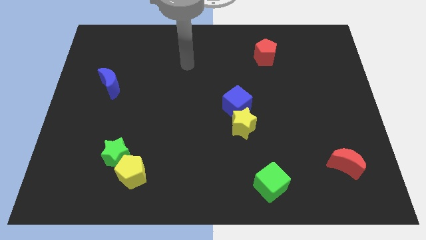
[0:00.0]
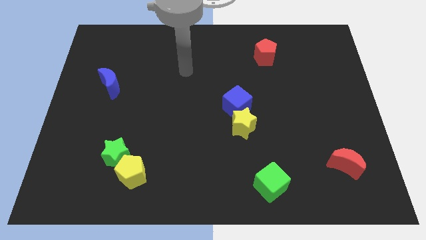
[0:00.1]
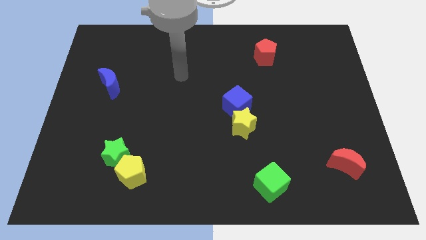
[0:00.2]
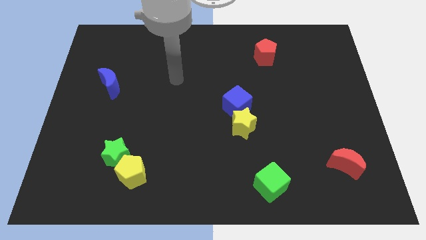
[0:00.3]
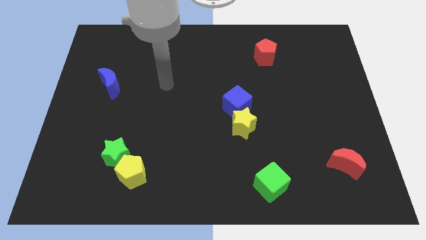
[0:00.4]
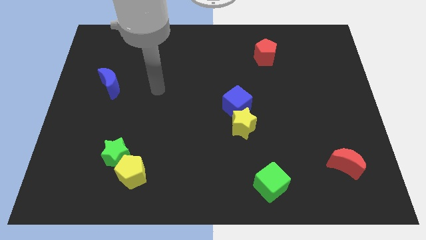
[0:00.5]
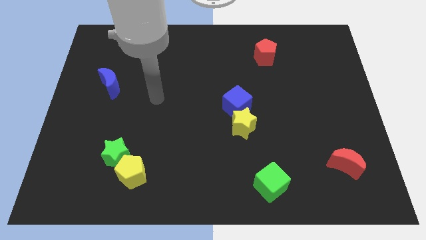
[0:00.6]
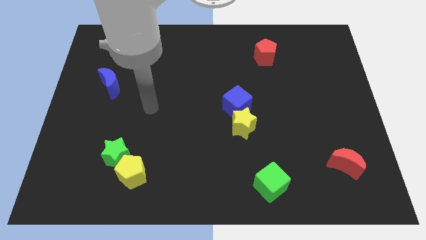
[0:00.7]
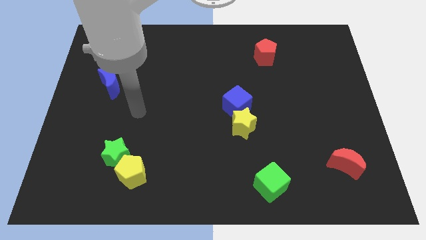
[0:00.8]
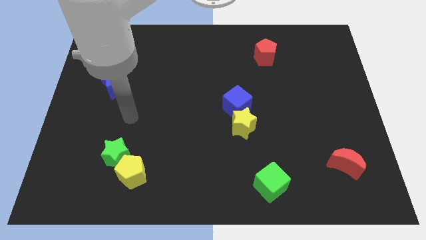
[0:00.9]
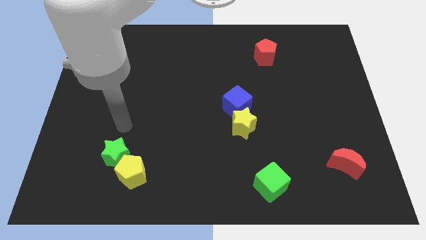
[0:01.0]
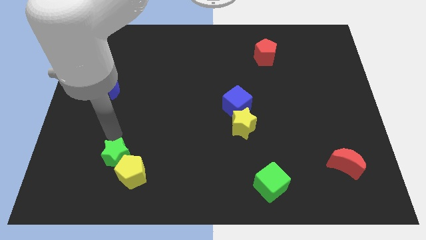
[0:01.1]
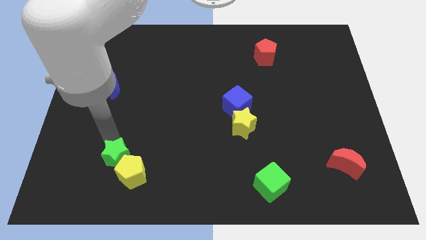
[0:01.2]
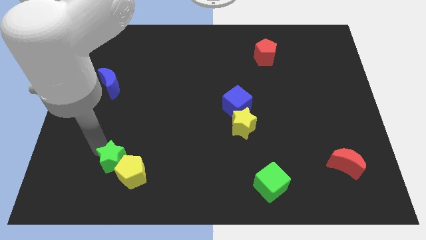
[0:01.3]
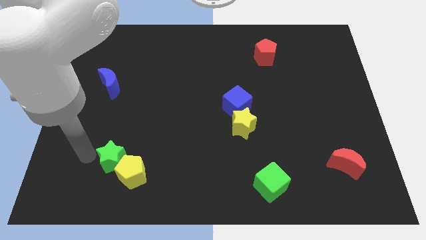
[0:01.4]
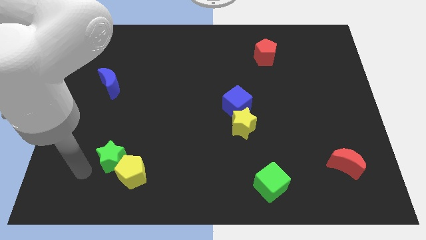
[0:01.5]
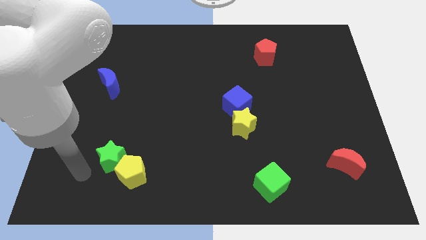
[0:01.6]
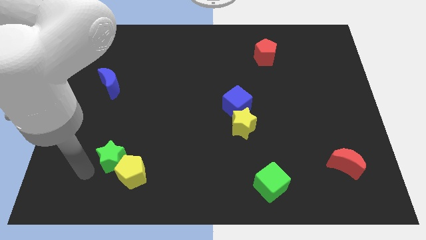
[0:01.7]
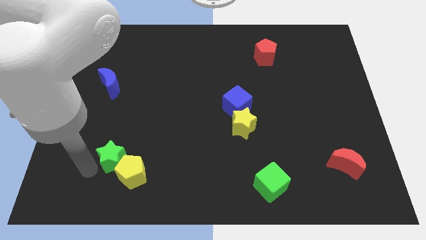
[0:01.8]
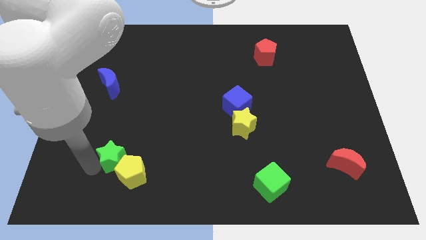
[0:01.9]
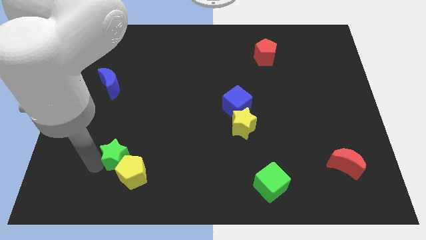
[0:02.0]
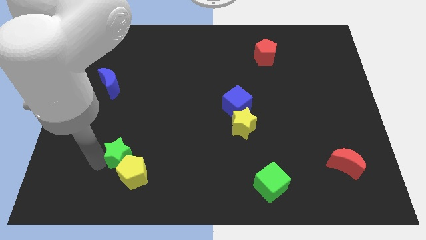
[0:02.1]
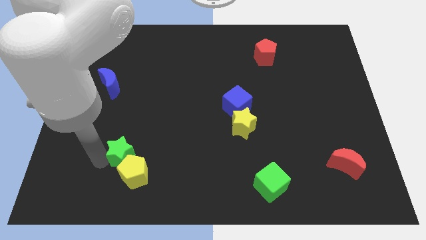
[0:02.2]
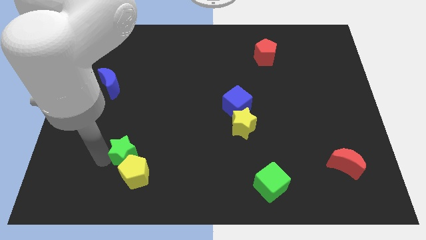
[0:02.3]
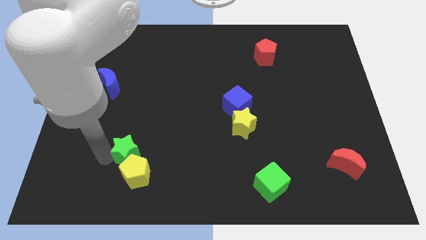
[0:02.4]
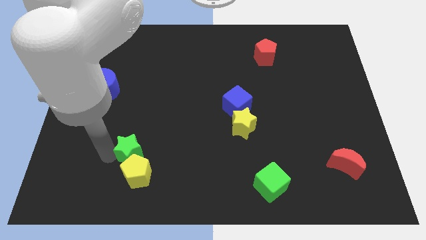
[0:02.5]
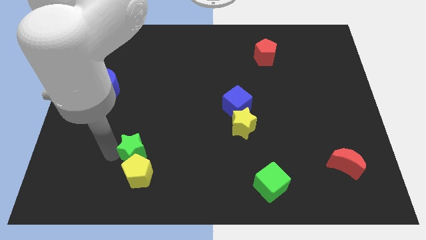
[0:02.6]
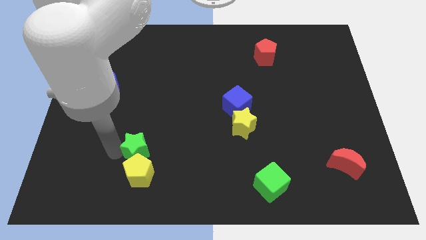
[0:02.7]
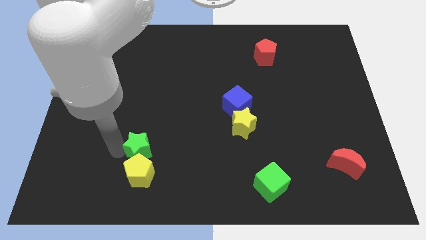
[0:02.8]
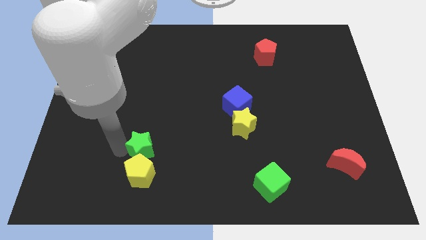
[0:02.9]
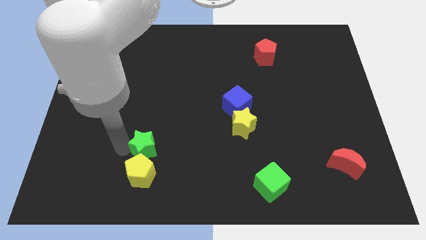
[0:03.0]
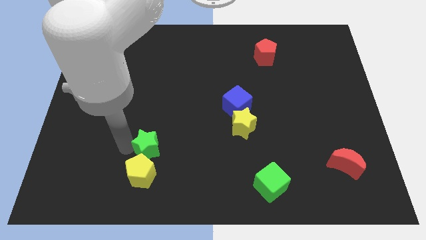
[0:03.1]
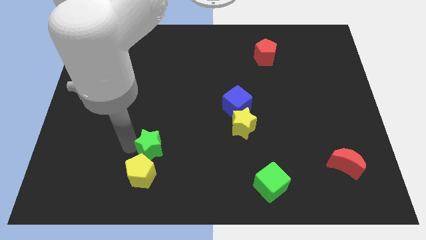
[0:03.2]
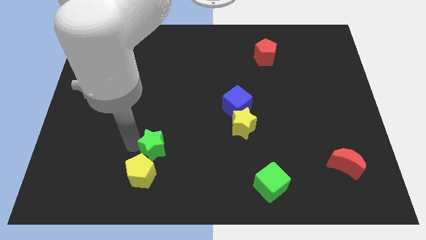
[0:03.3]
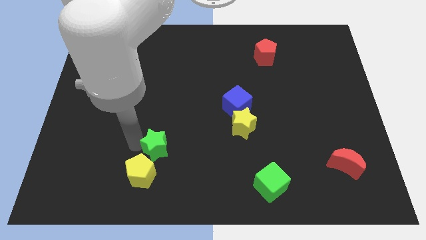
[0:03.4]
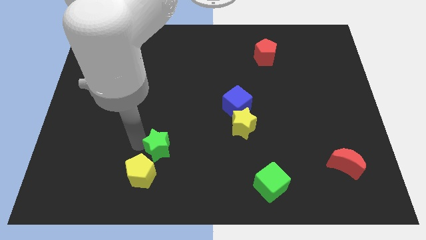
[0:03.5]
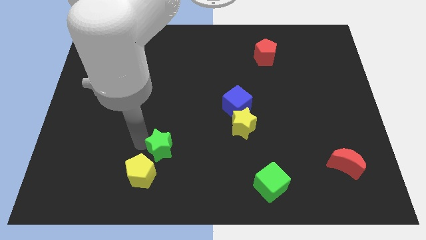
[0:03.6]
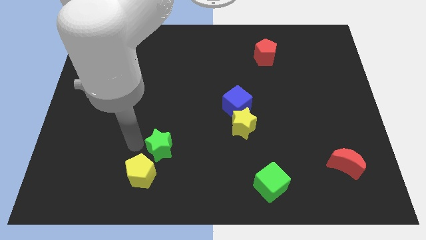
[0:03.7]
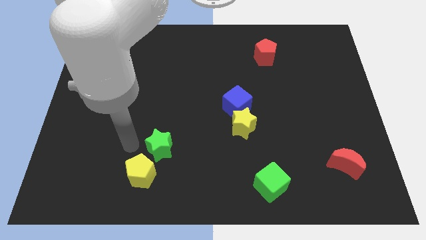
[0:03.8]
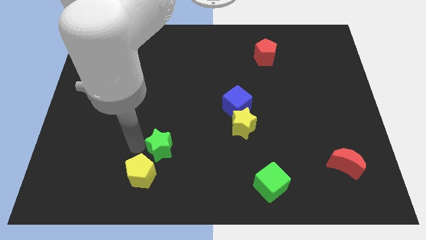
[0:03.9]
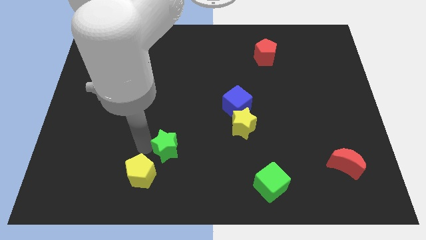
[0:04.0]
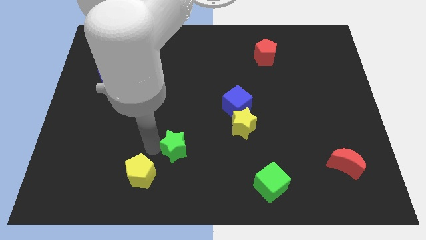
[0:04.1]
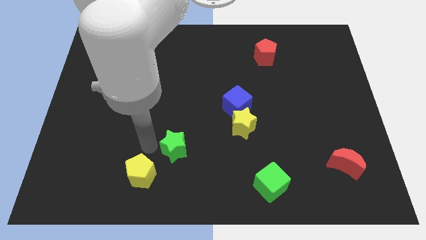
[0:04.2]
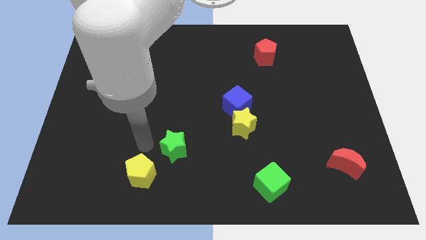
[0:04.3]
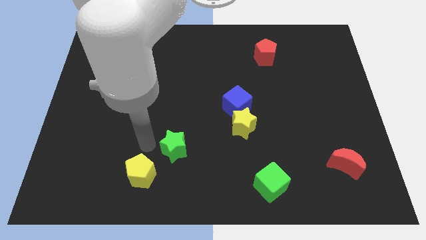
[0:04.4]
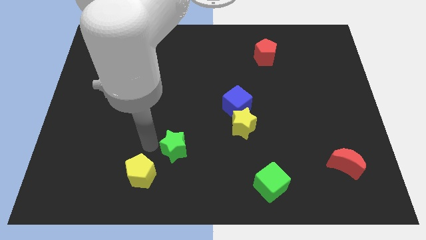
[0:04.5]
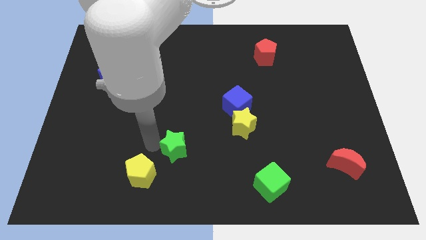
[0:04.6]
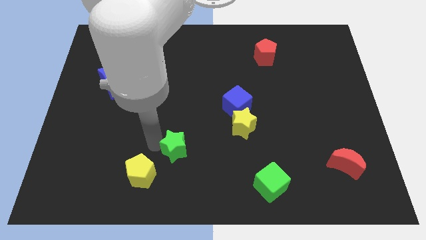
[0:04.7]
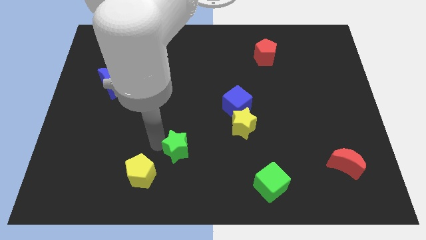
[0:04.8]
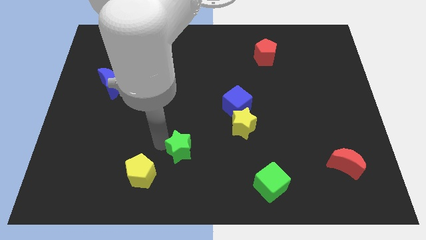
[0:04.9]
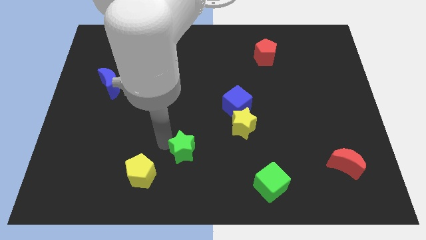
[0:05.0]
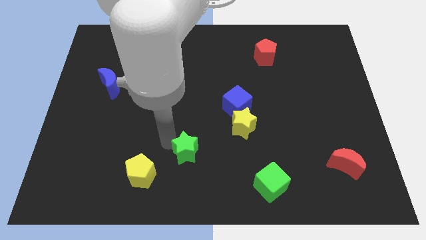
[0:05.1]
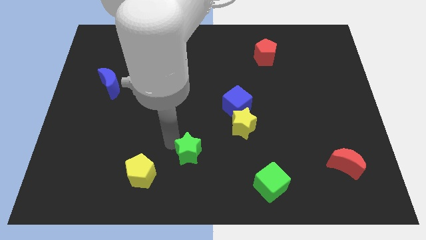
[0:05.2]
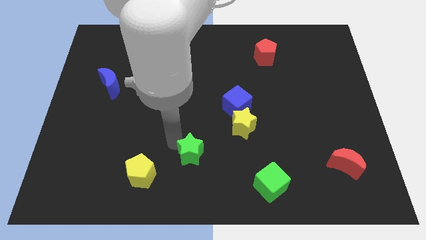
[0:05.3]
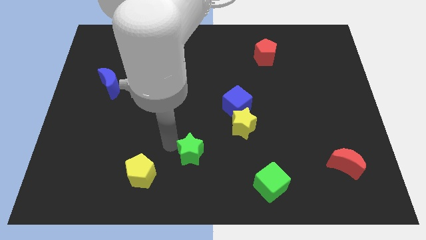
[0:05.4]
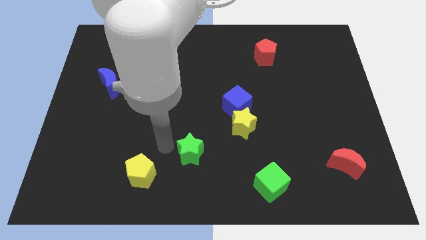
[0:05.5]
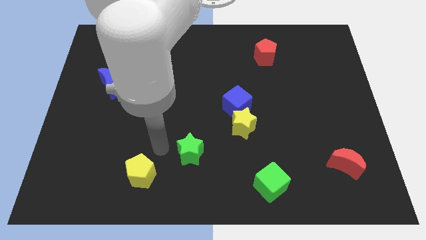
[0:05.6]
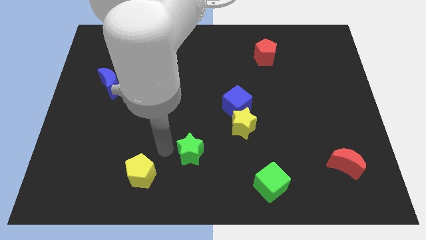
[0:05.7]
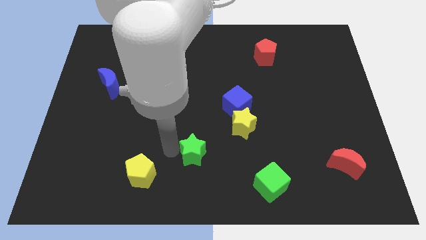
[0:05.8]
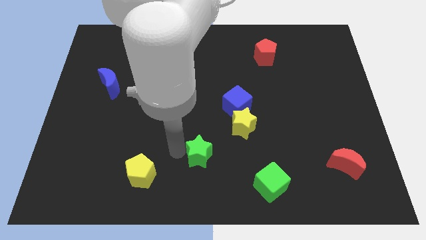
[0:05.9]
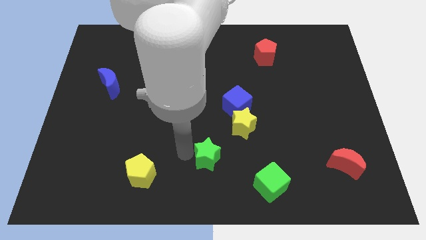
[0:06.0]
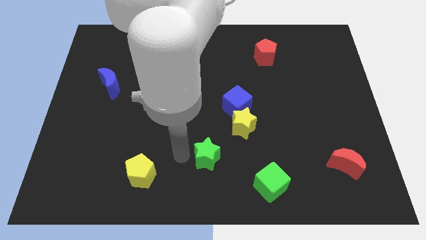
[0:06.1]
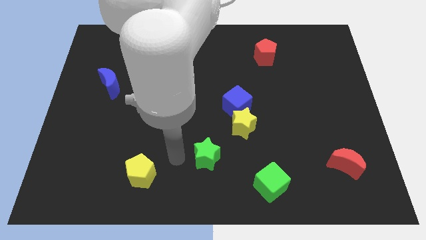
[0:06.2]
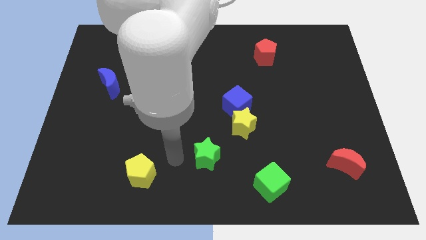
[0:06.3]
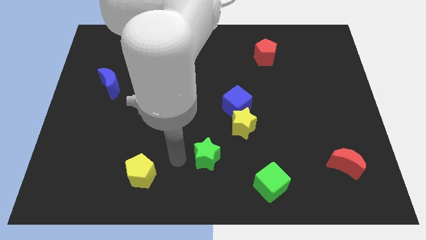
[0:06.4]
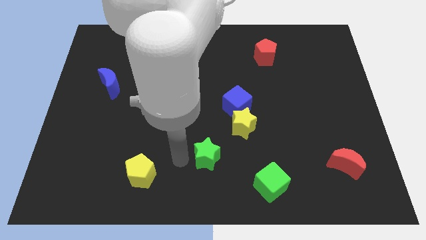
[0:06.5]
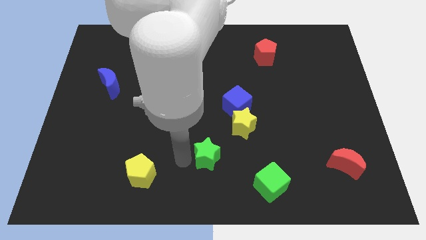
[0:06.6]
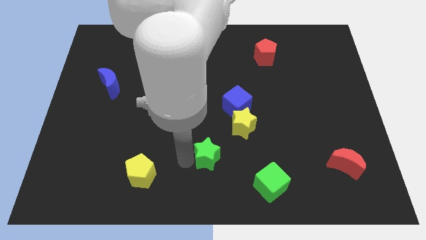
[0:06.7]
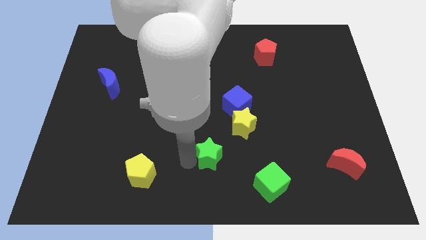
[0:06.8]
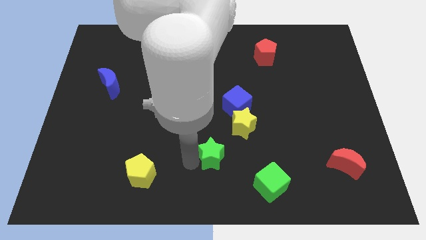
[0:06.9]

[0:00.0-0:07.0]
push the green star to the right

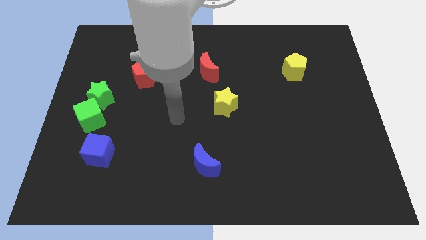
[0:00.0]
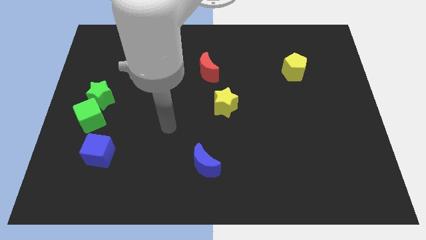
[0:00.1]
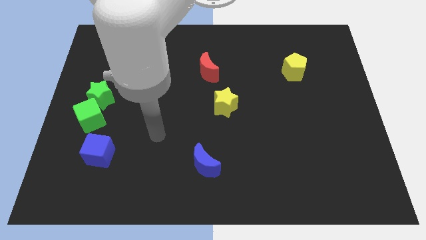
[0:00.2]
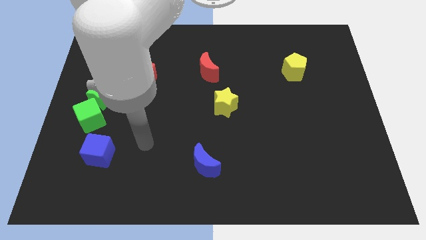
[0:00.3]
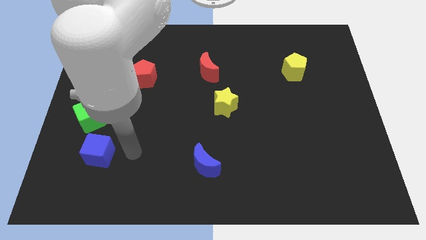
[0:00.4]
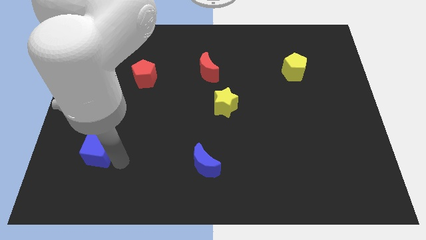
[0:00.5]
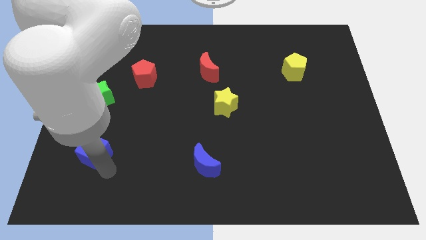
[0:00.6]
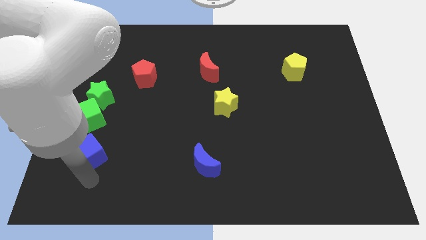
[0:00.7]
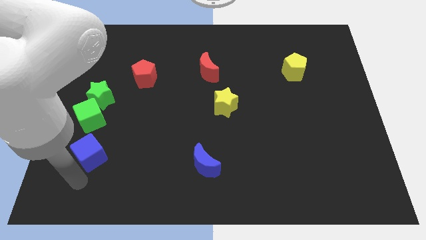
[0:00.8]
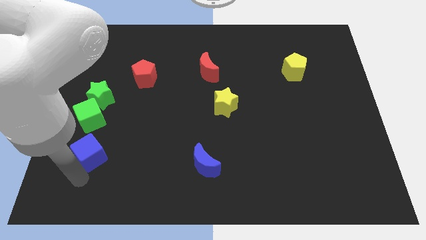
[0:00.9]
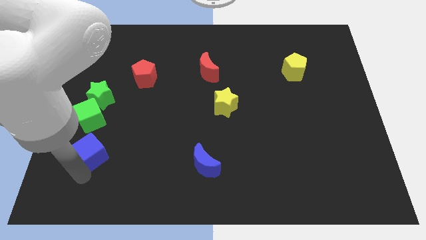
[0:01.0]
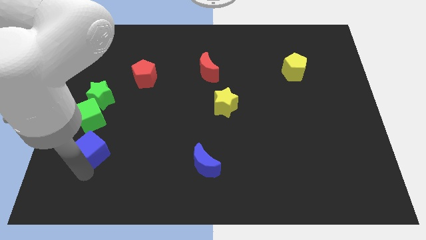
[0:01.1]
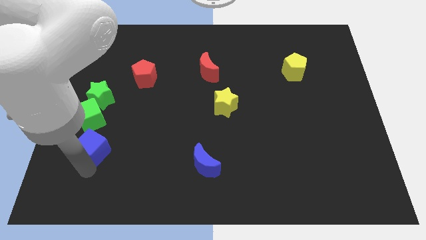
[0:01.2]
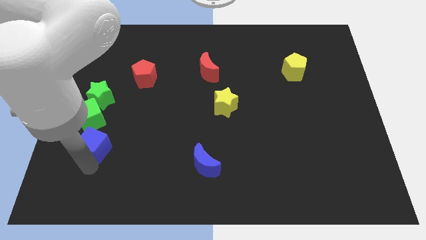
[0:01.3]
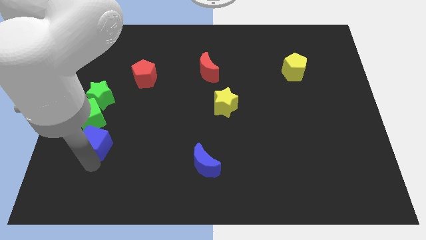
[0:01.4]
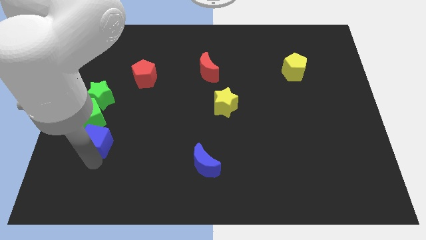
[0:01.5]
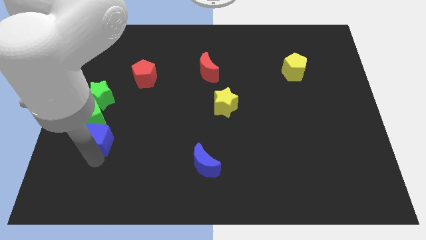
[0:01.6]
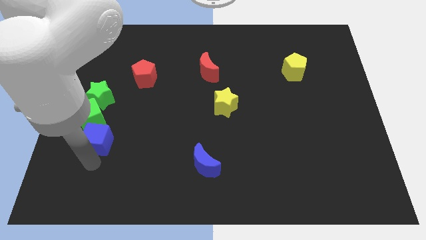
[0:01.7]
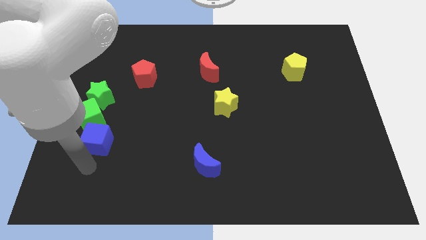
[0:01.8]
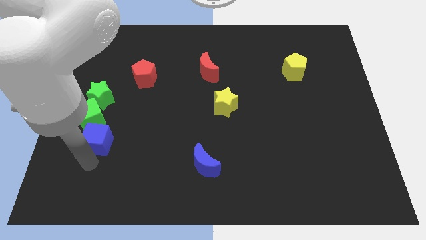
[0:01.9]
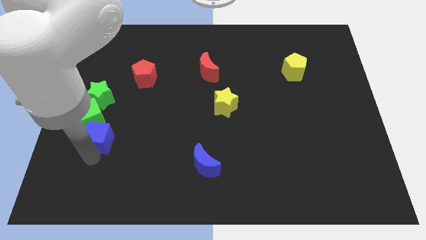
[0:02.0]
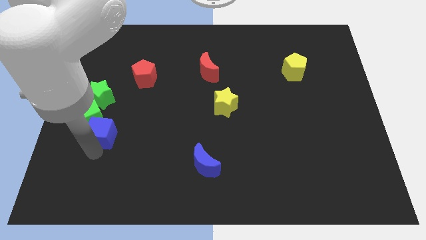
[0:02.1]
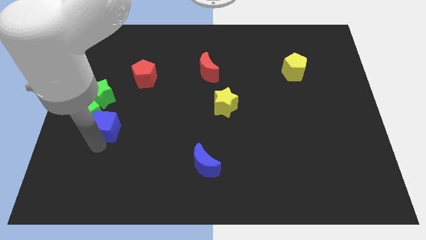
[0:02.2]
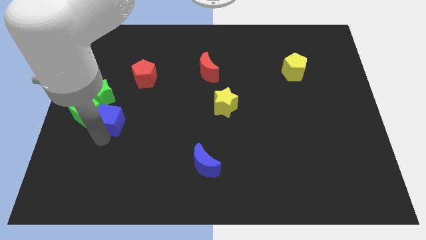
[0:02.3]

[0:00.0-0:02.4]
slide the blue cube upwards a little bit
